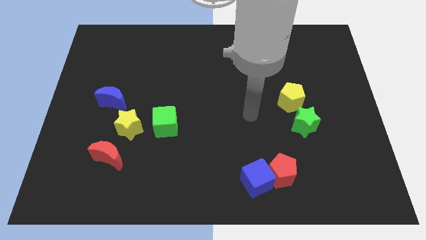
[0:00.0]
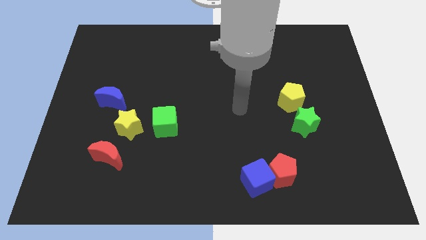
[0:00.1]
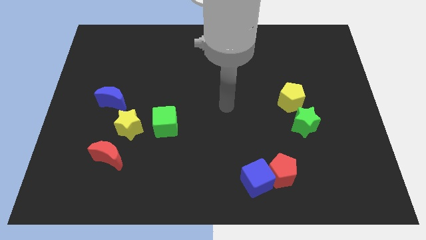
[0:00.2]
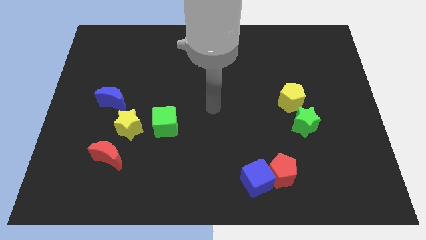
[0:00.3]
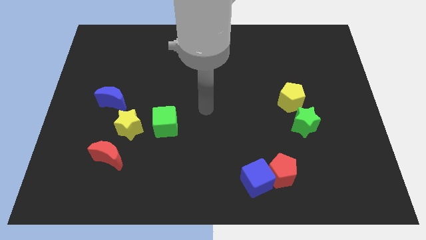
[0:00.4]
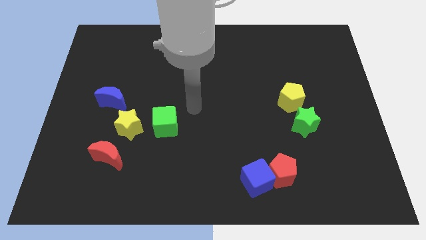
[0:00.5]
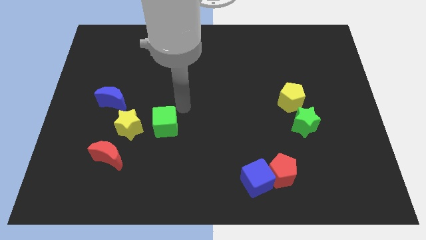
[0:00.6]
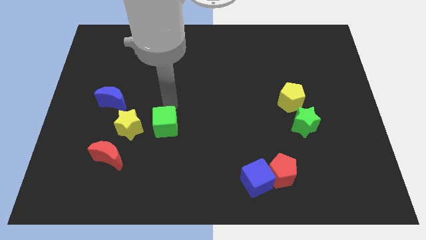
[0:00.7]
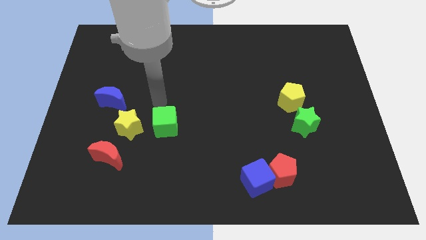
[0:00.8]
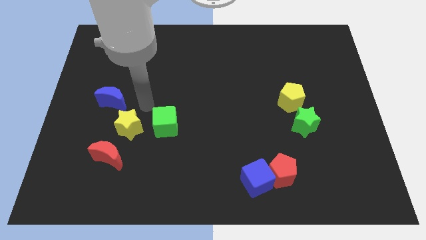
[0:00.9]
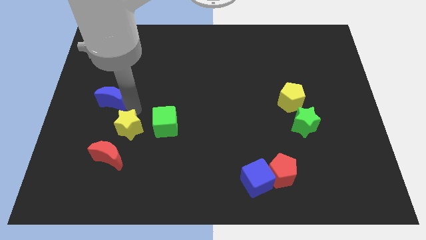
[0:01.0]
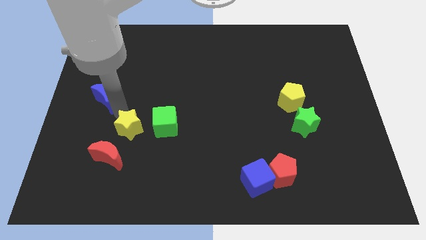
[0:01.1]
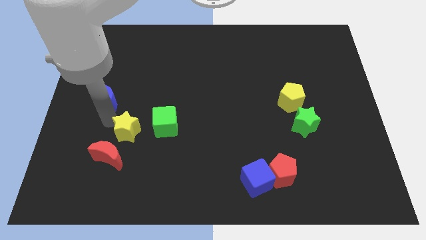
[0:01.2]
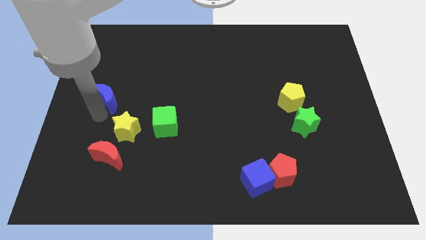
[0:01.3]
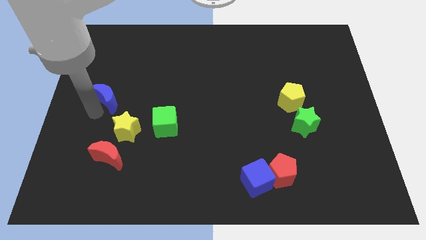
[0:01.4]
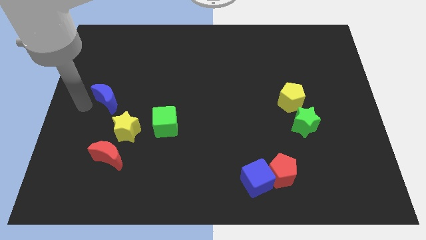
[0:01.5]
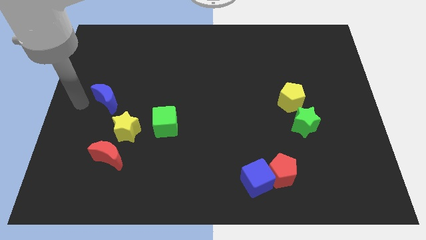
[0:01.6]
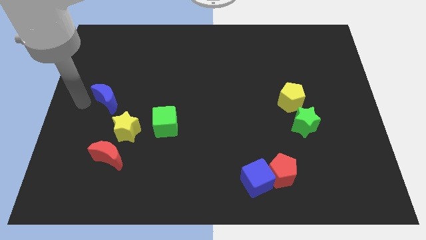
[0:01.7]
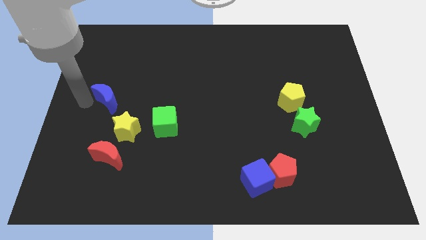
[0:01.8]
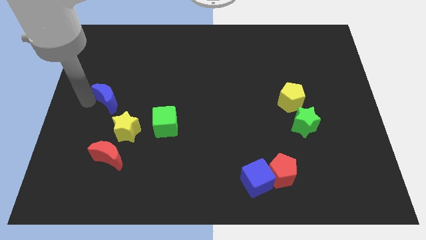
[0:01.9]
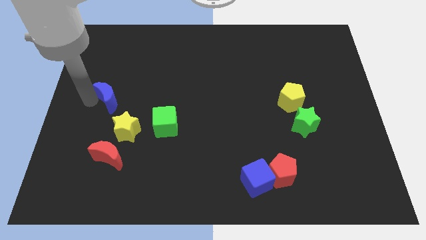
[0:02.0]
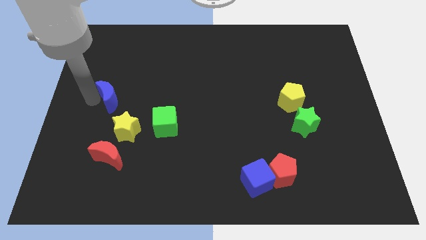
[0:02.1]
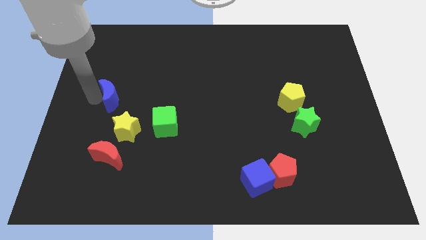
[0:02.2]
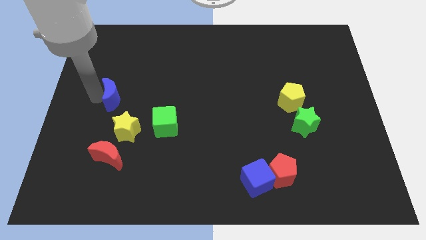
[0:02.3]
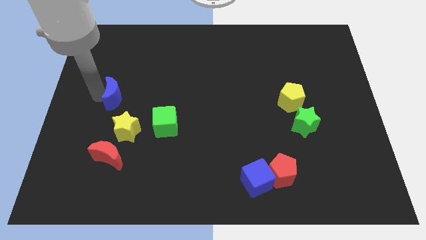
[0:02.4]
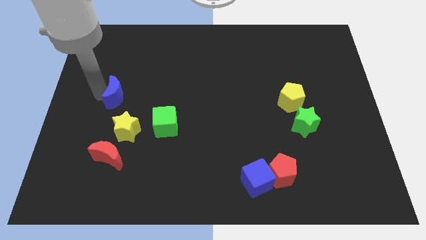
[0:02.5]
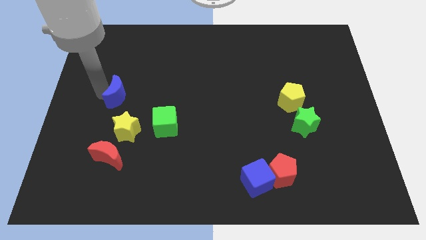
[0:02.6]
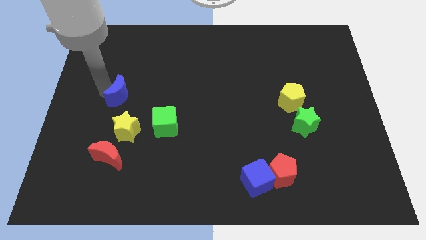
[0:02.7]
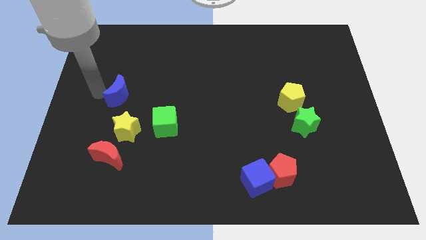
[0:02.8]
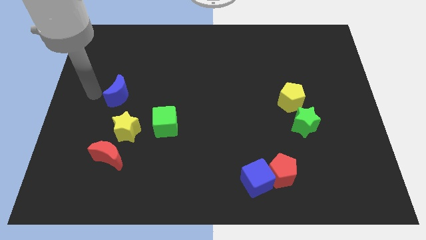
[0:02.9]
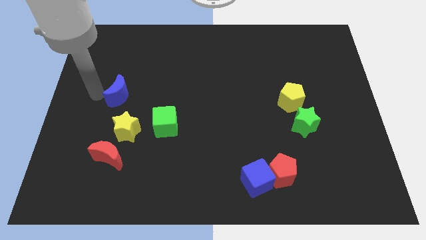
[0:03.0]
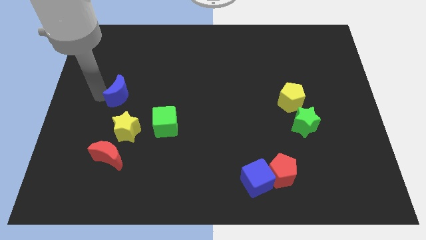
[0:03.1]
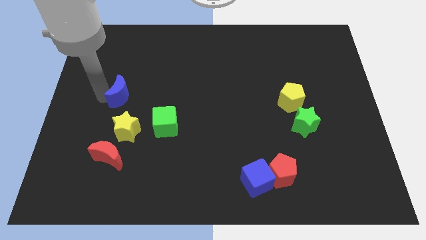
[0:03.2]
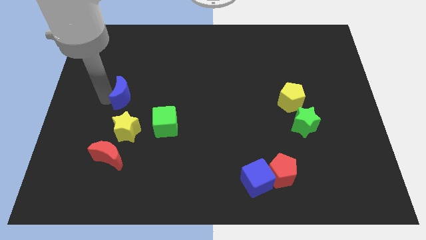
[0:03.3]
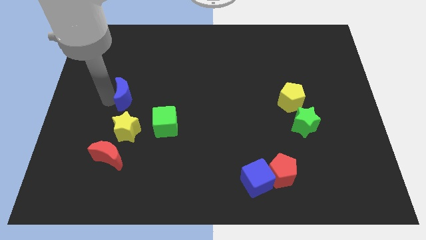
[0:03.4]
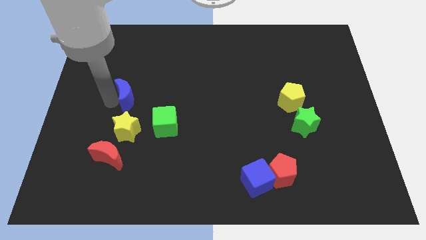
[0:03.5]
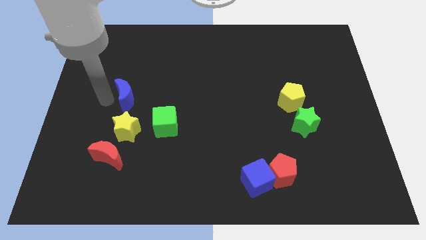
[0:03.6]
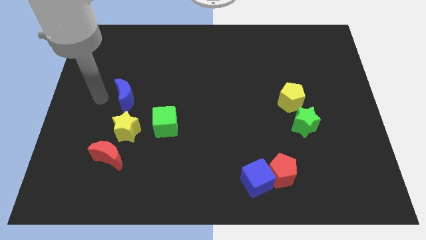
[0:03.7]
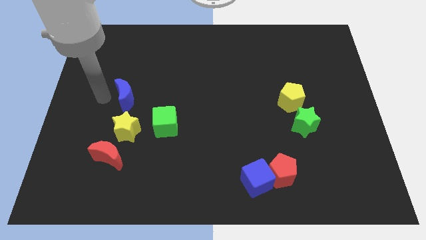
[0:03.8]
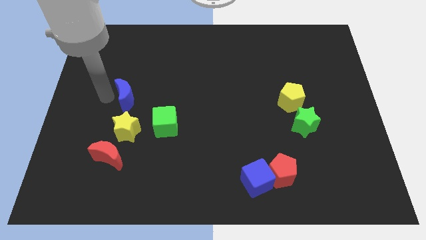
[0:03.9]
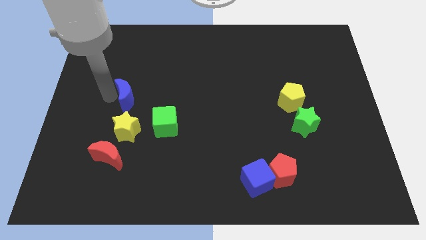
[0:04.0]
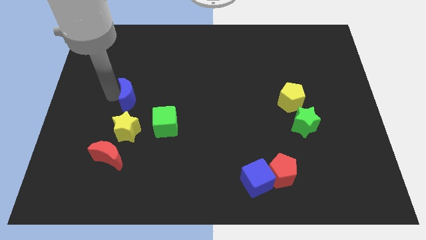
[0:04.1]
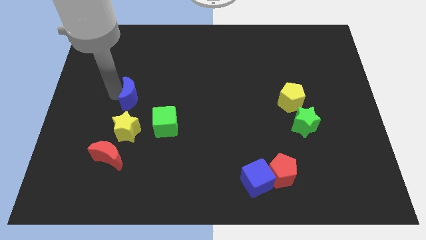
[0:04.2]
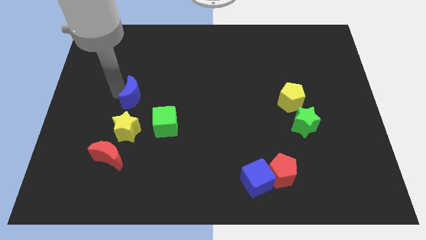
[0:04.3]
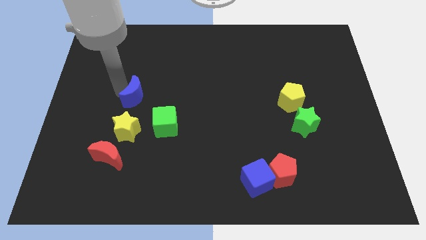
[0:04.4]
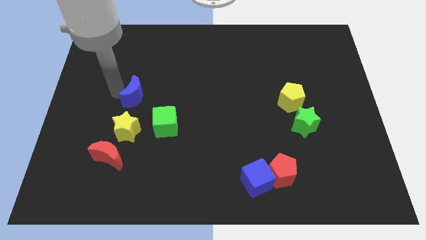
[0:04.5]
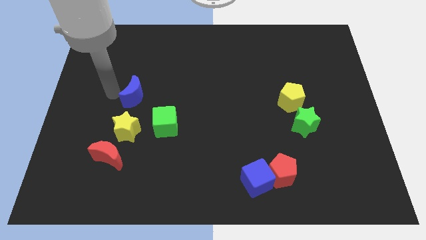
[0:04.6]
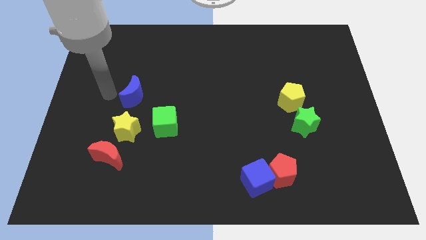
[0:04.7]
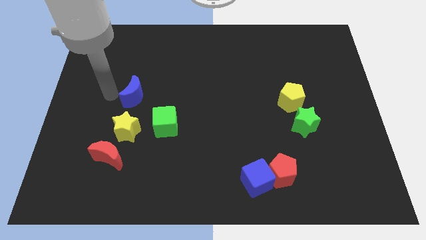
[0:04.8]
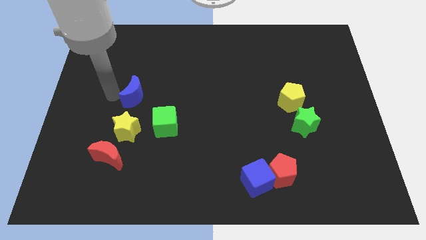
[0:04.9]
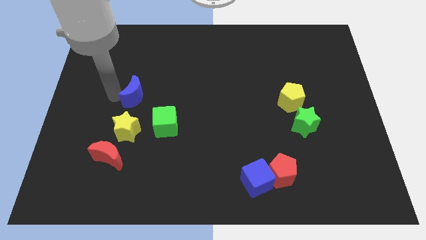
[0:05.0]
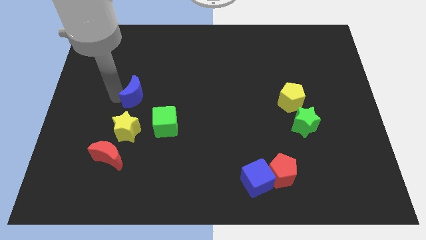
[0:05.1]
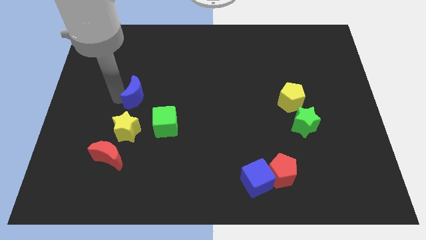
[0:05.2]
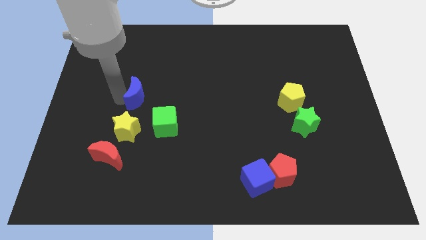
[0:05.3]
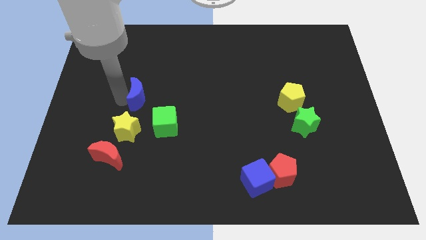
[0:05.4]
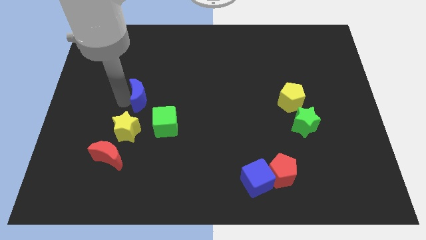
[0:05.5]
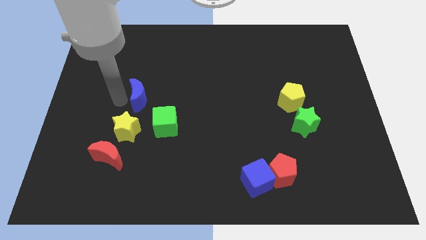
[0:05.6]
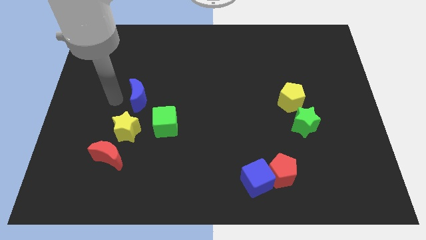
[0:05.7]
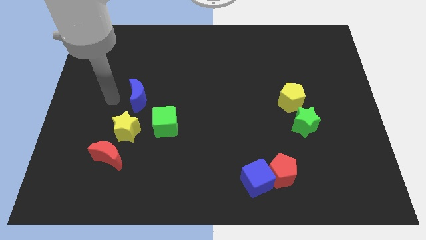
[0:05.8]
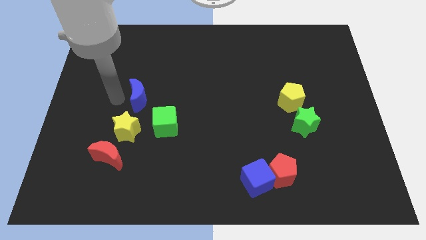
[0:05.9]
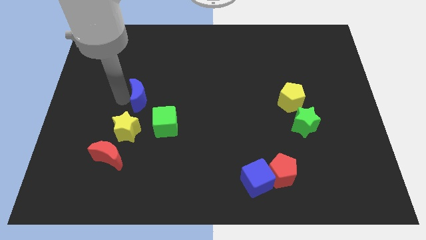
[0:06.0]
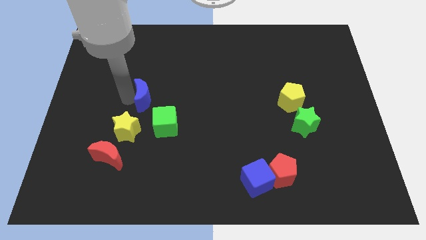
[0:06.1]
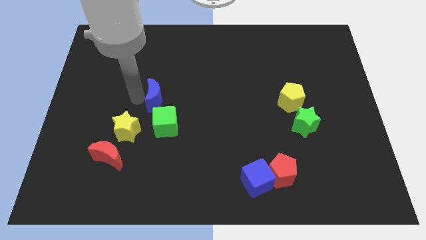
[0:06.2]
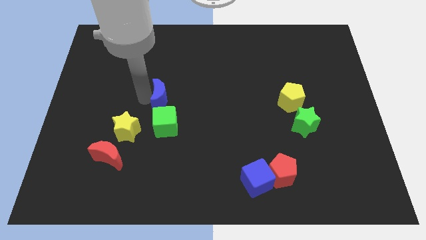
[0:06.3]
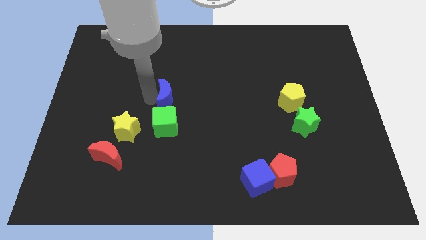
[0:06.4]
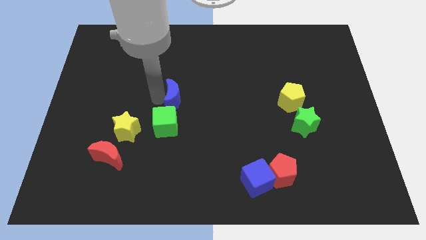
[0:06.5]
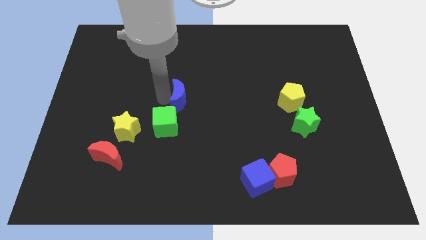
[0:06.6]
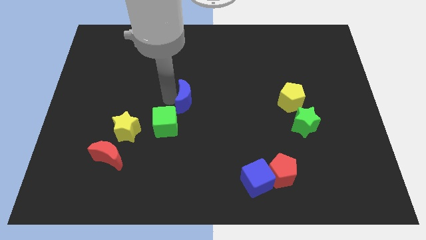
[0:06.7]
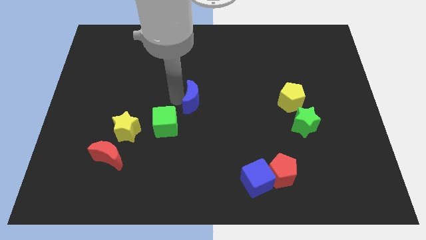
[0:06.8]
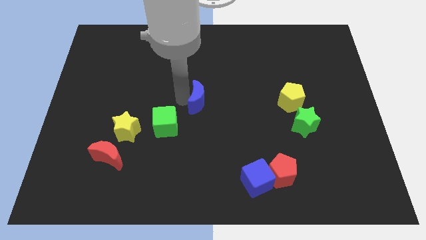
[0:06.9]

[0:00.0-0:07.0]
slide the blue moon right

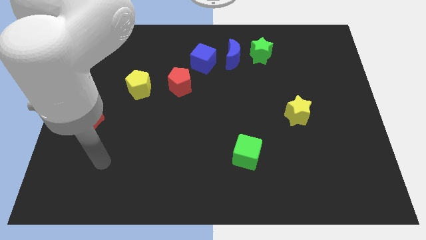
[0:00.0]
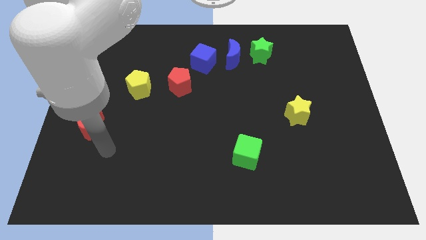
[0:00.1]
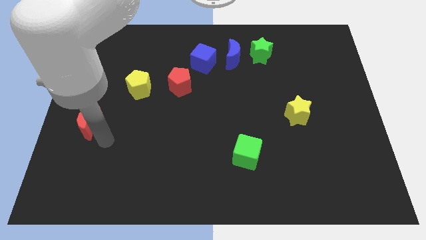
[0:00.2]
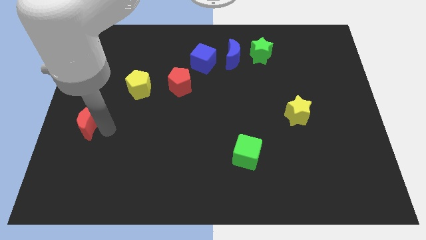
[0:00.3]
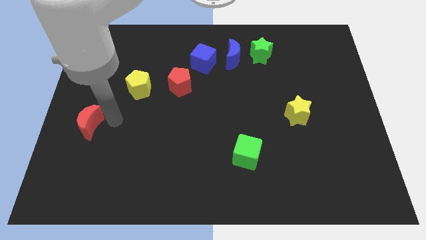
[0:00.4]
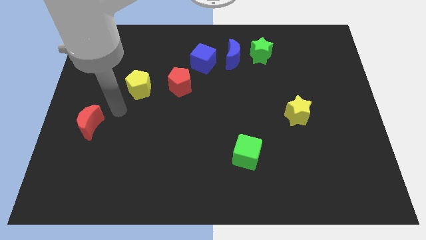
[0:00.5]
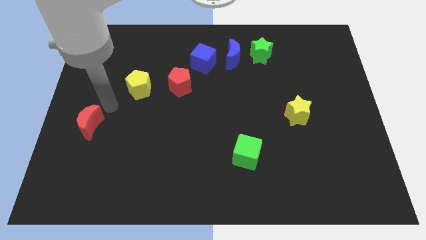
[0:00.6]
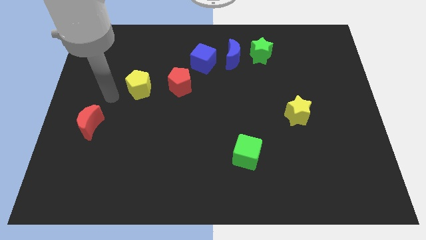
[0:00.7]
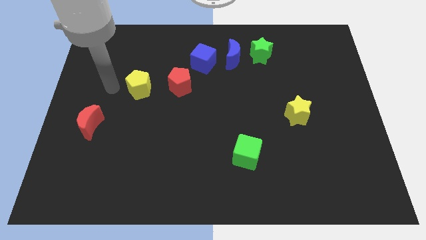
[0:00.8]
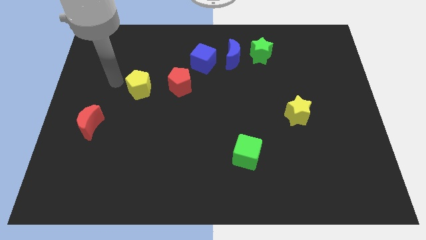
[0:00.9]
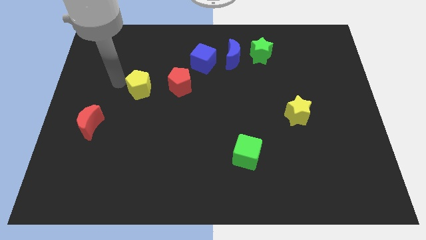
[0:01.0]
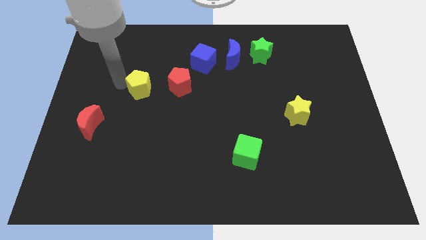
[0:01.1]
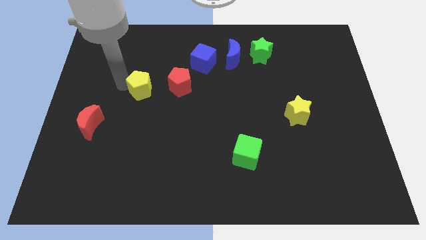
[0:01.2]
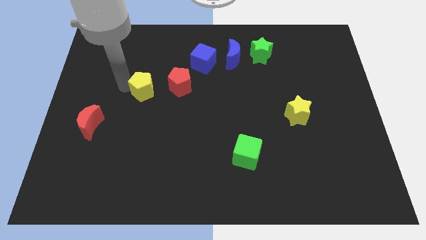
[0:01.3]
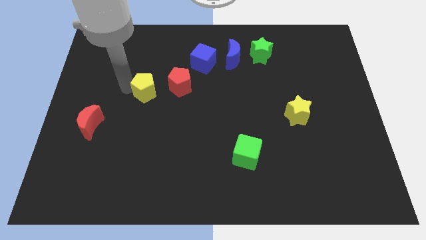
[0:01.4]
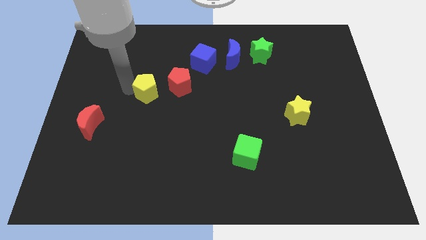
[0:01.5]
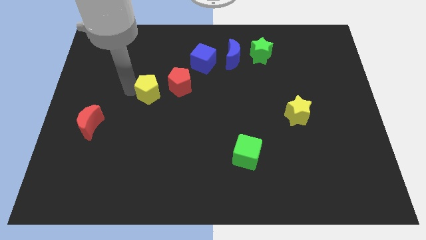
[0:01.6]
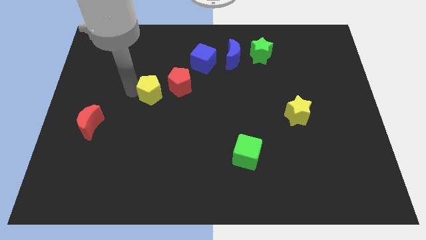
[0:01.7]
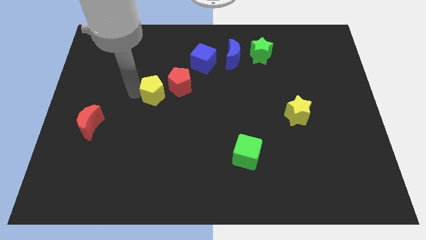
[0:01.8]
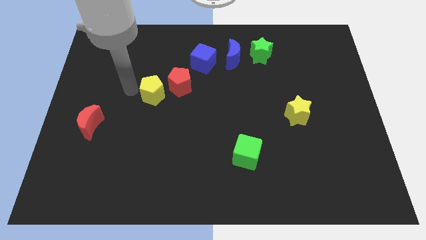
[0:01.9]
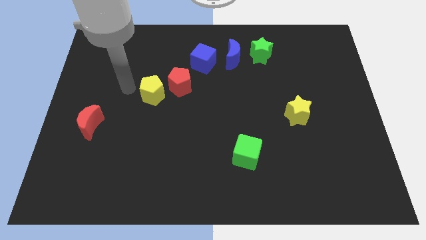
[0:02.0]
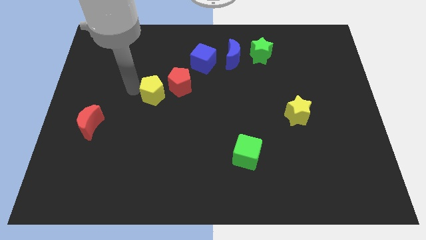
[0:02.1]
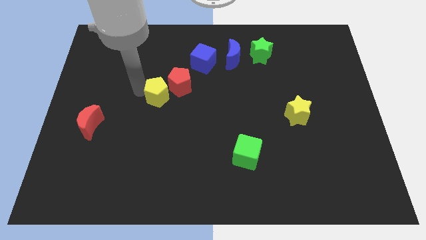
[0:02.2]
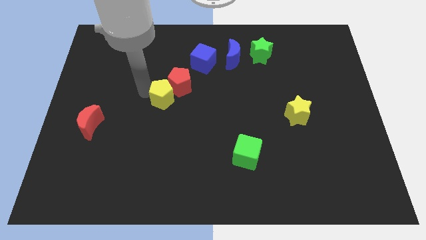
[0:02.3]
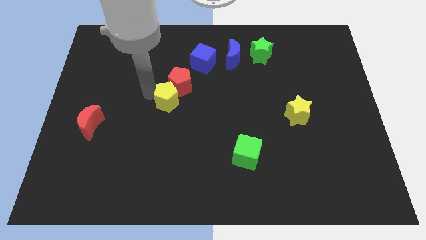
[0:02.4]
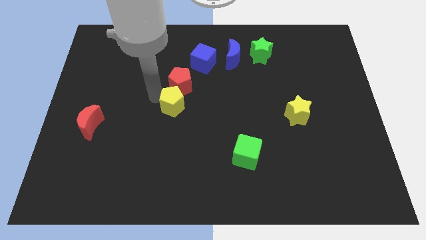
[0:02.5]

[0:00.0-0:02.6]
slightly move the yellow pentagon to the right
